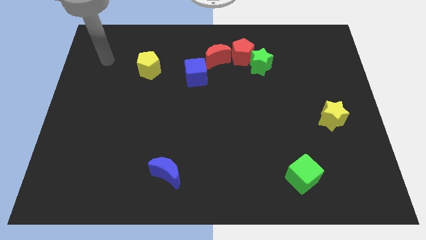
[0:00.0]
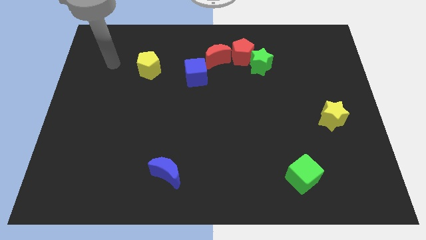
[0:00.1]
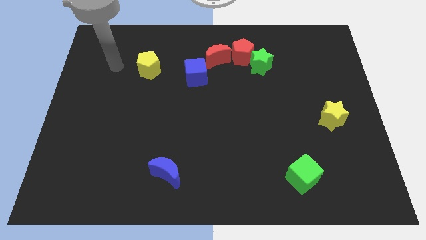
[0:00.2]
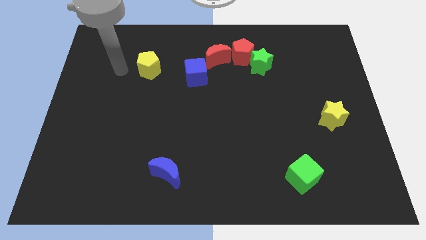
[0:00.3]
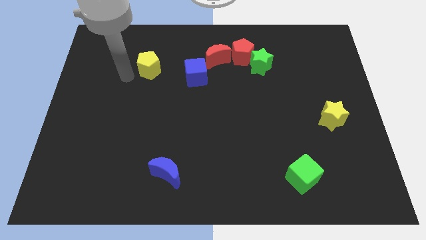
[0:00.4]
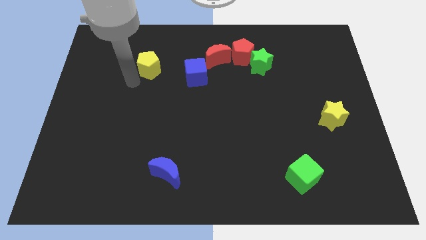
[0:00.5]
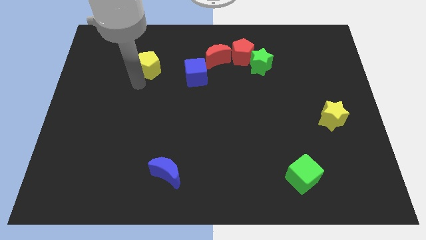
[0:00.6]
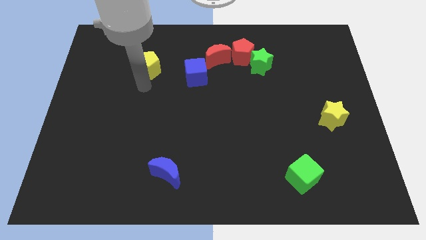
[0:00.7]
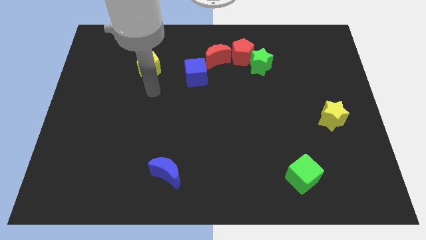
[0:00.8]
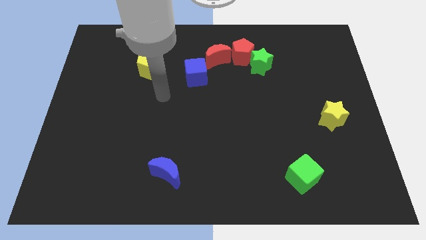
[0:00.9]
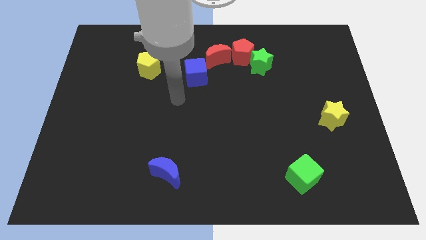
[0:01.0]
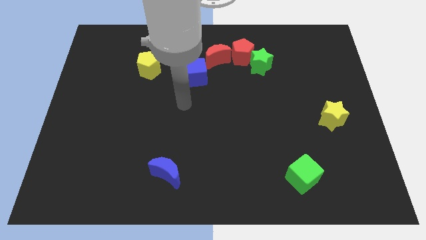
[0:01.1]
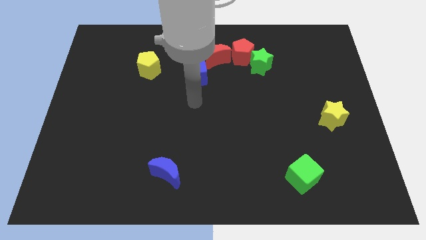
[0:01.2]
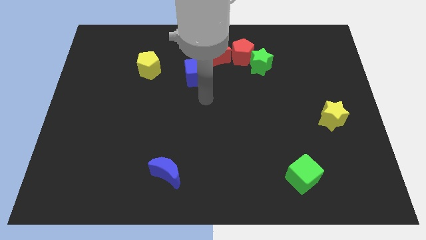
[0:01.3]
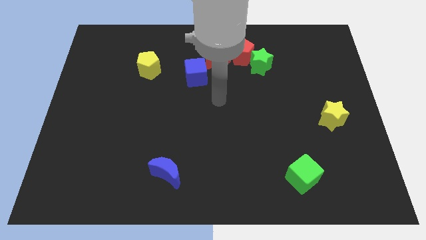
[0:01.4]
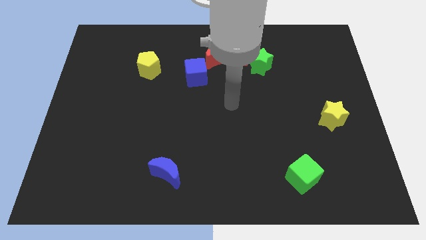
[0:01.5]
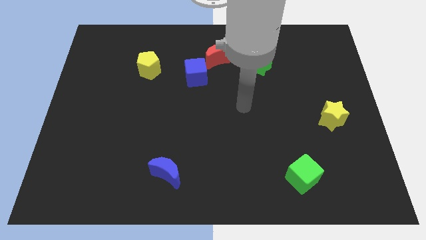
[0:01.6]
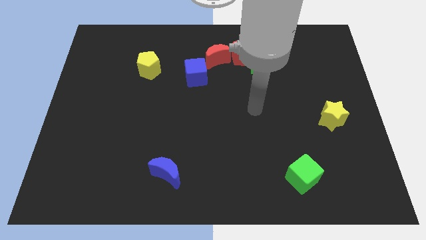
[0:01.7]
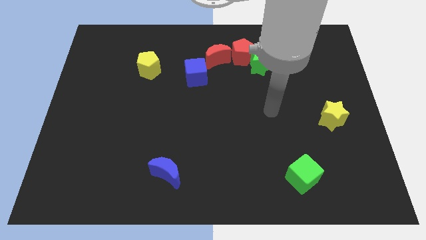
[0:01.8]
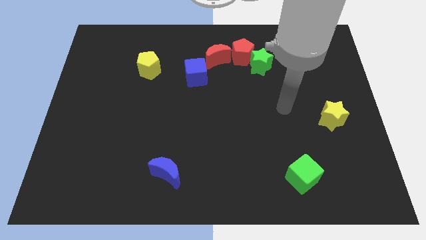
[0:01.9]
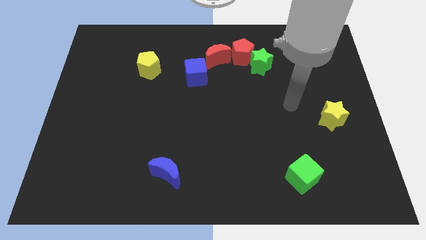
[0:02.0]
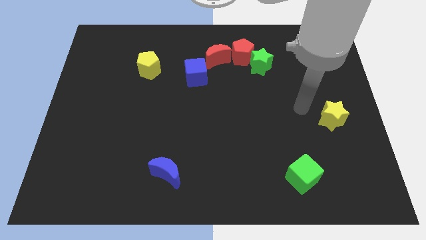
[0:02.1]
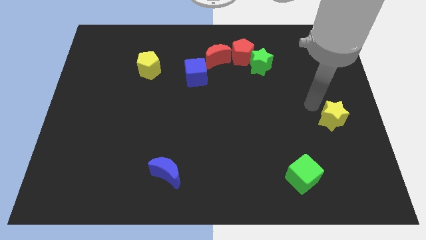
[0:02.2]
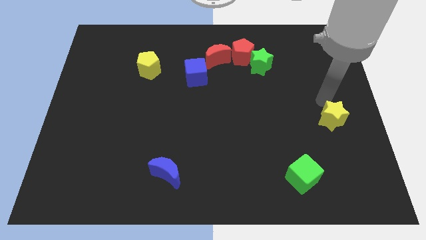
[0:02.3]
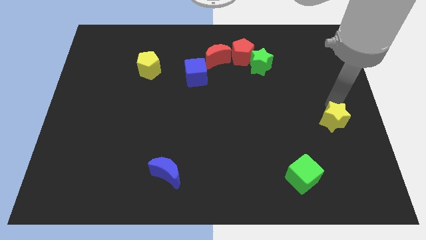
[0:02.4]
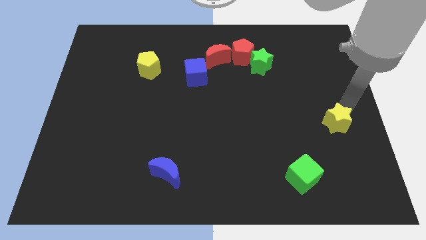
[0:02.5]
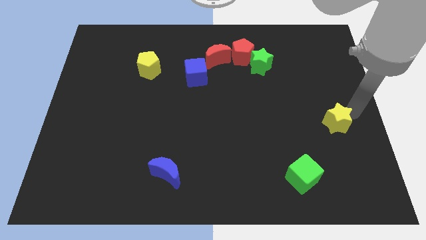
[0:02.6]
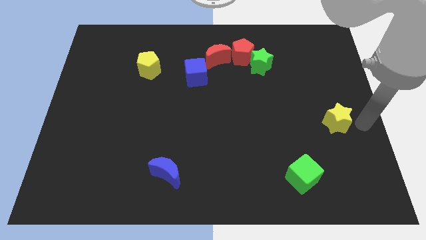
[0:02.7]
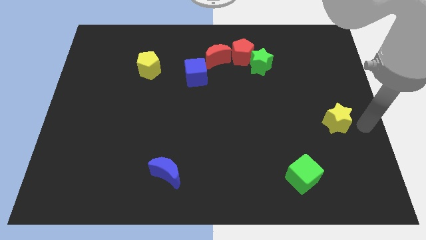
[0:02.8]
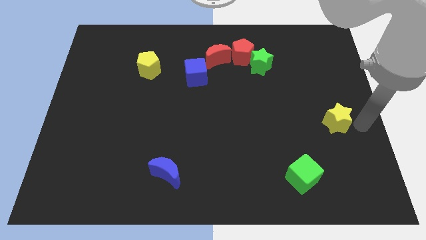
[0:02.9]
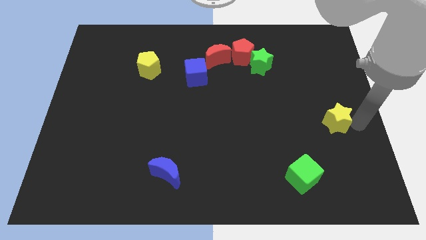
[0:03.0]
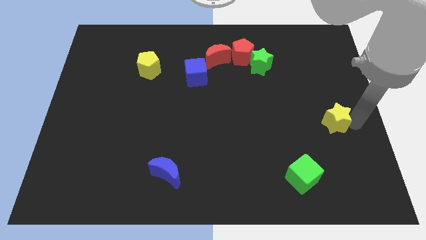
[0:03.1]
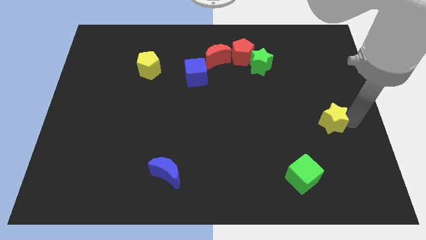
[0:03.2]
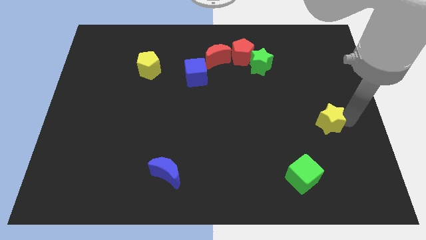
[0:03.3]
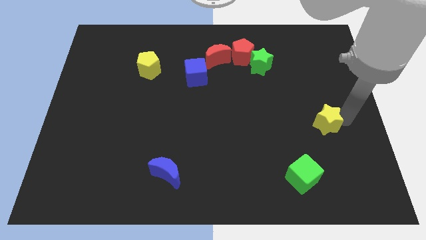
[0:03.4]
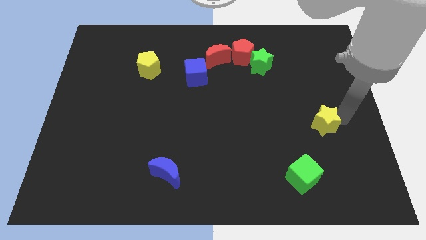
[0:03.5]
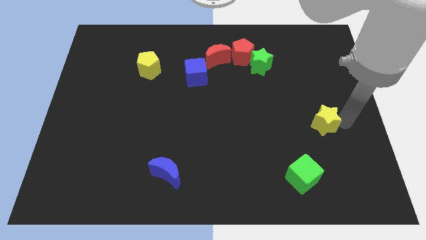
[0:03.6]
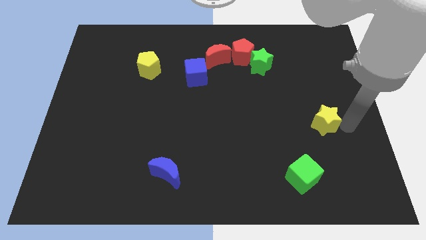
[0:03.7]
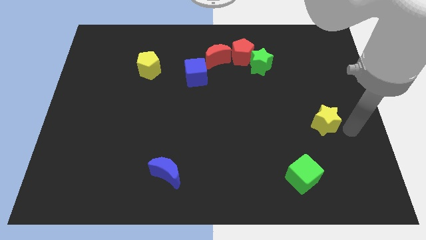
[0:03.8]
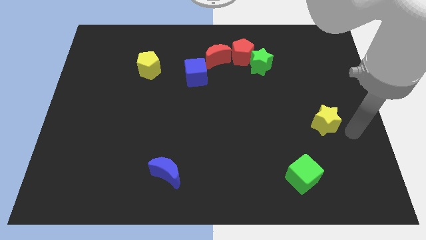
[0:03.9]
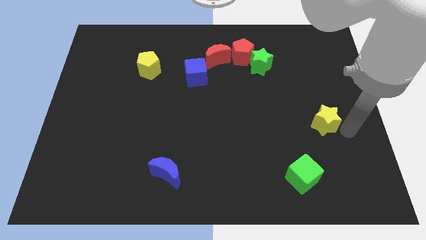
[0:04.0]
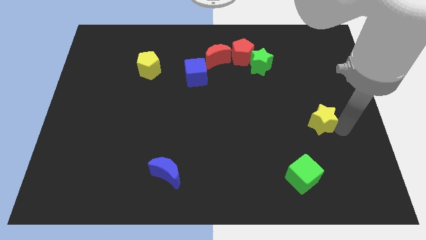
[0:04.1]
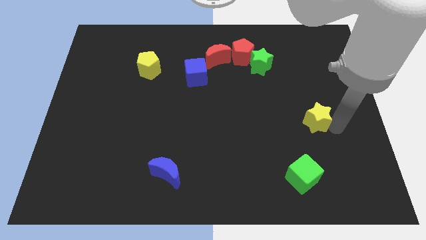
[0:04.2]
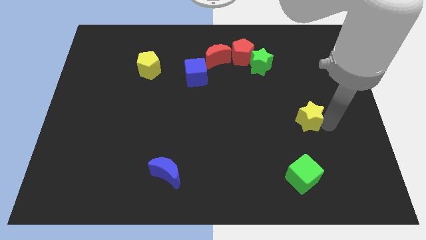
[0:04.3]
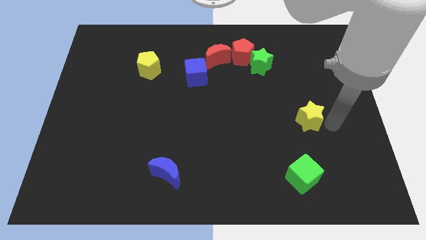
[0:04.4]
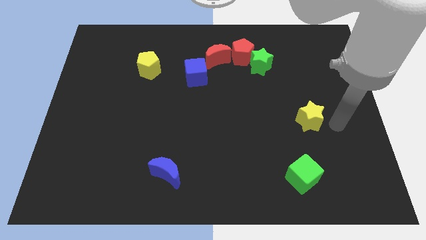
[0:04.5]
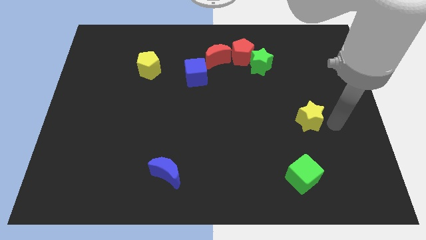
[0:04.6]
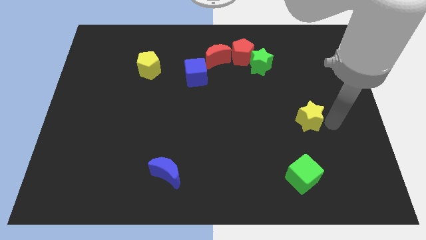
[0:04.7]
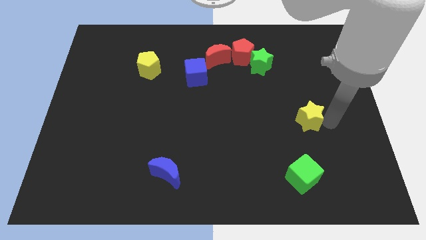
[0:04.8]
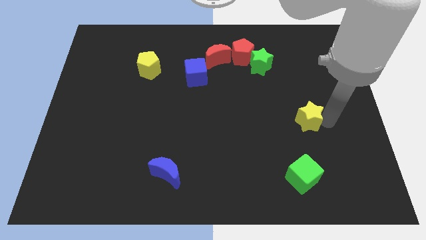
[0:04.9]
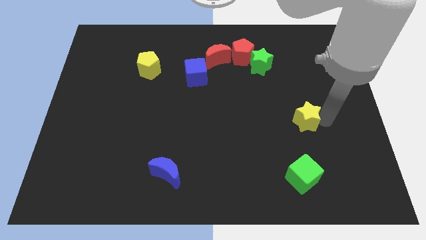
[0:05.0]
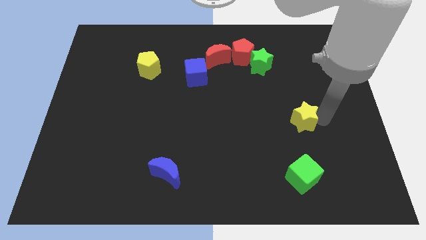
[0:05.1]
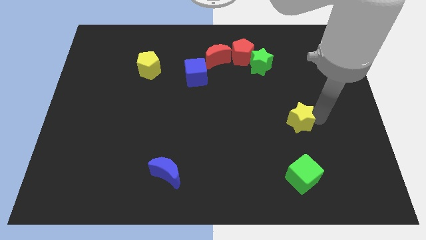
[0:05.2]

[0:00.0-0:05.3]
slide the yellow star left a little

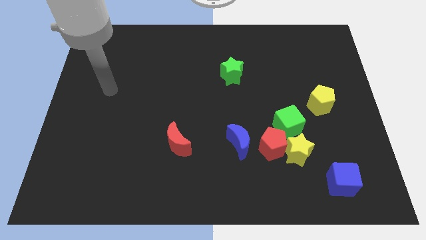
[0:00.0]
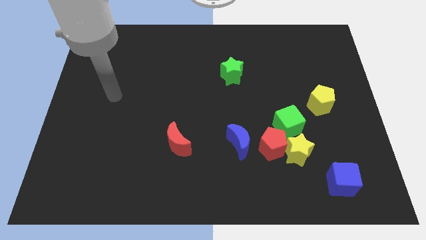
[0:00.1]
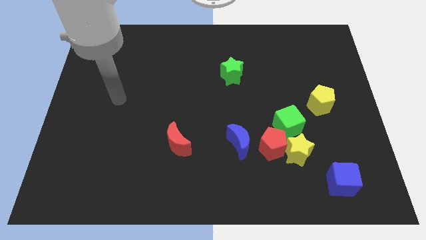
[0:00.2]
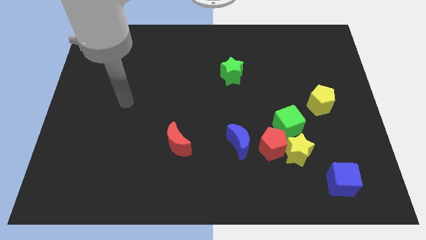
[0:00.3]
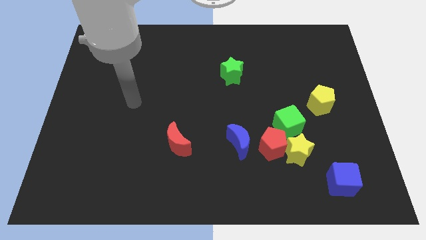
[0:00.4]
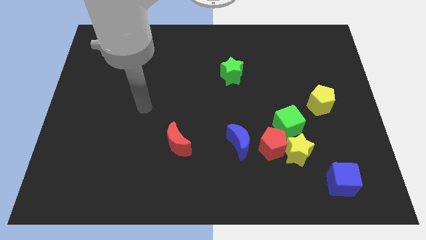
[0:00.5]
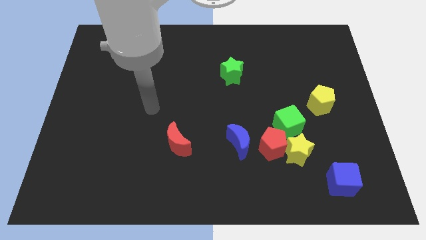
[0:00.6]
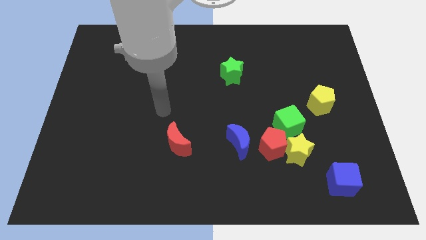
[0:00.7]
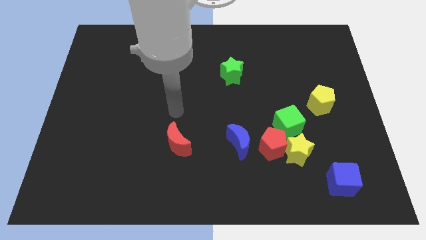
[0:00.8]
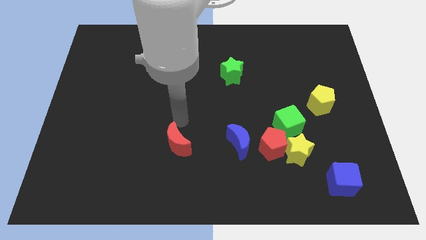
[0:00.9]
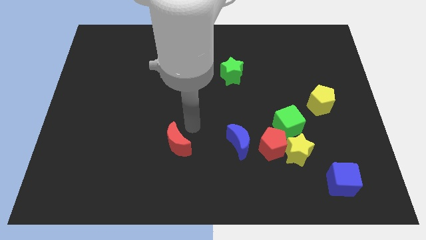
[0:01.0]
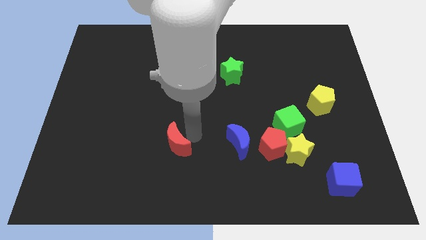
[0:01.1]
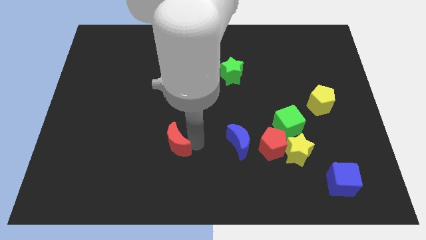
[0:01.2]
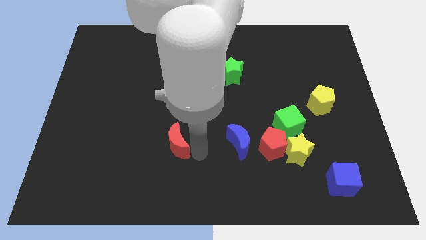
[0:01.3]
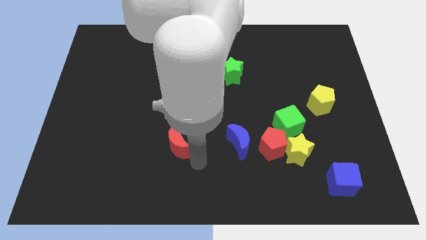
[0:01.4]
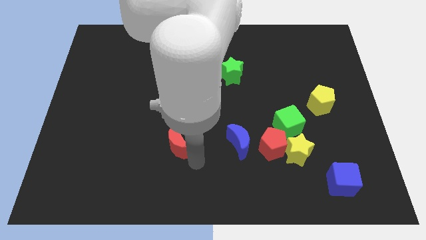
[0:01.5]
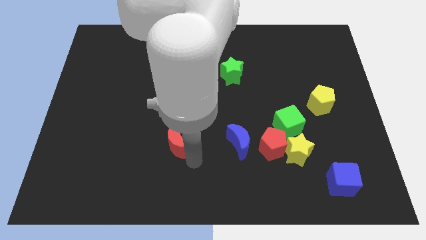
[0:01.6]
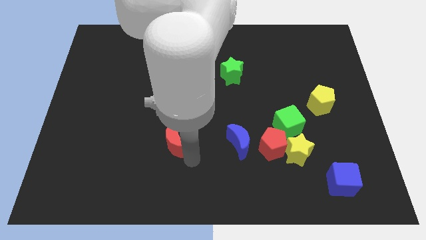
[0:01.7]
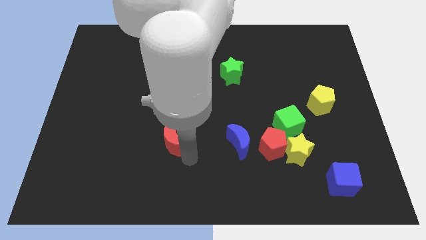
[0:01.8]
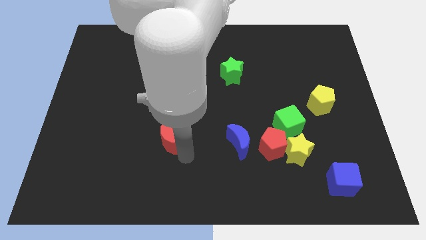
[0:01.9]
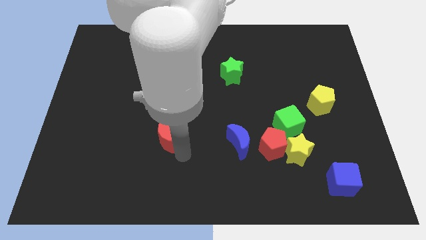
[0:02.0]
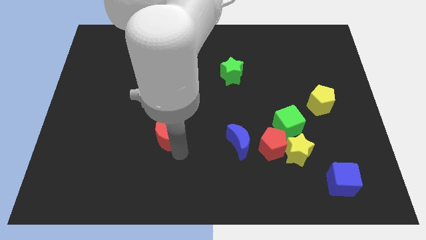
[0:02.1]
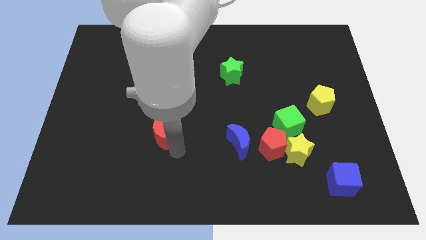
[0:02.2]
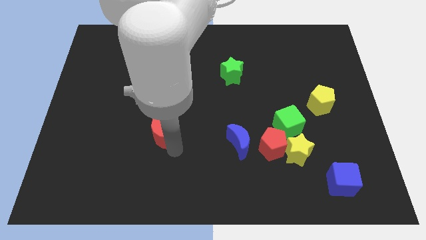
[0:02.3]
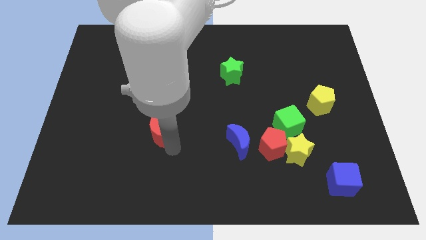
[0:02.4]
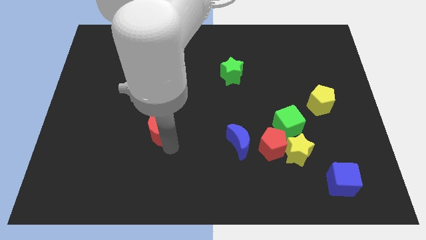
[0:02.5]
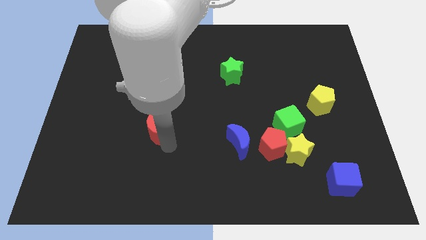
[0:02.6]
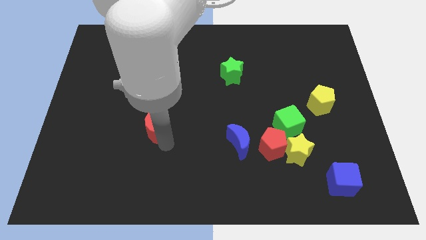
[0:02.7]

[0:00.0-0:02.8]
slide the red moon a little diagonally up and to the left

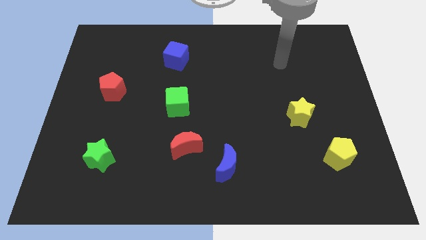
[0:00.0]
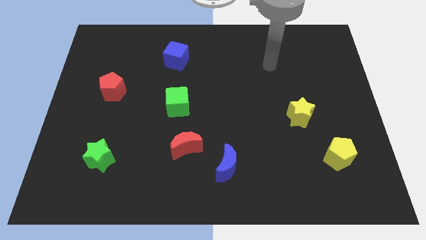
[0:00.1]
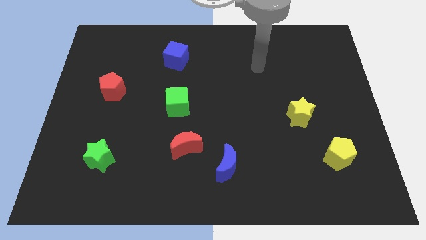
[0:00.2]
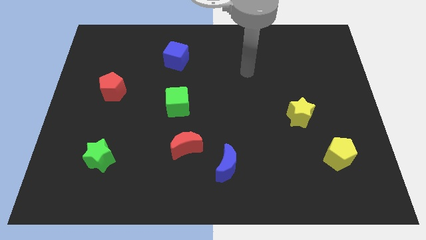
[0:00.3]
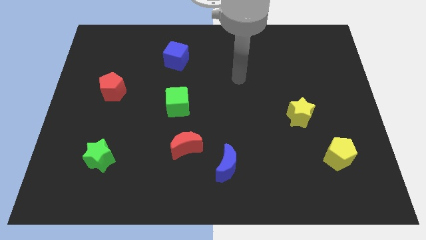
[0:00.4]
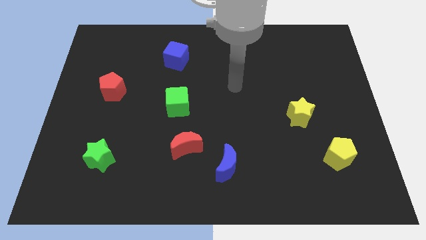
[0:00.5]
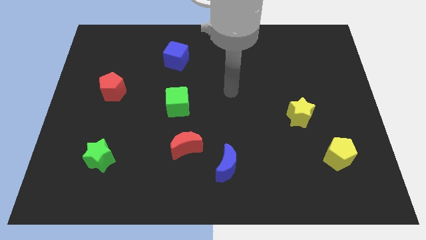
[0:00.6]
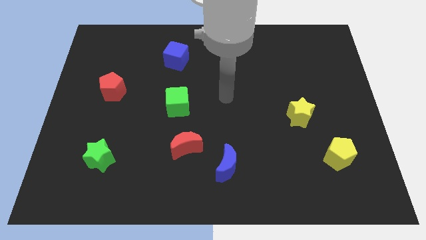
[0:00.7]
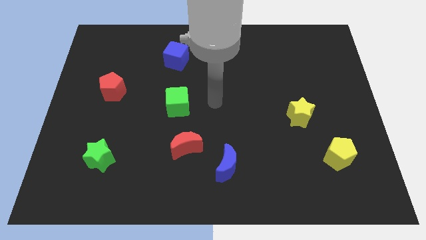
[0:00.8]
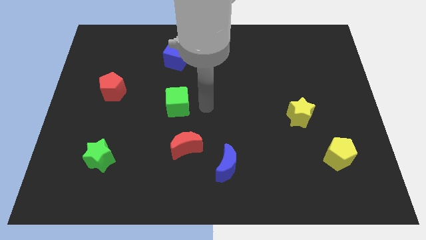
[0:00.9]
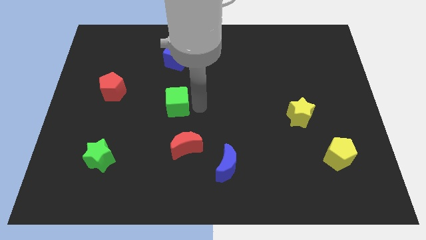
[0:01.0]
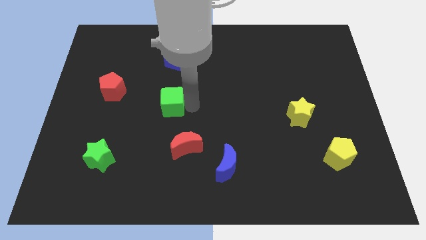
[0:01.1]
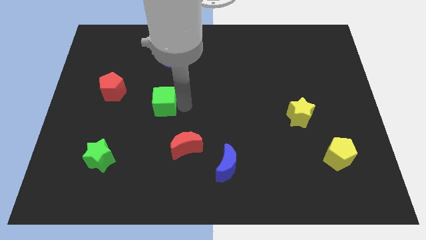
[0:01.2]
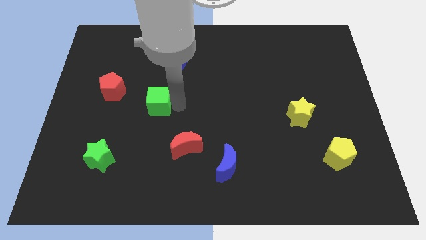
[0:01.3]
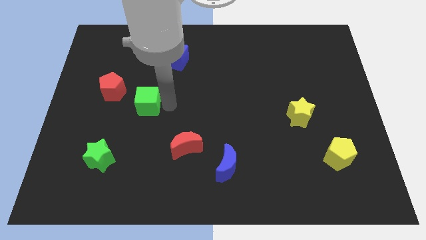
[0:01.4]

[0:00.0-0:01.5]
slide the green cube somewhat left
